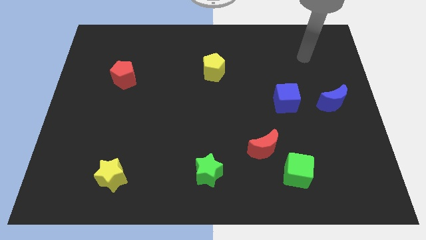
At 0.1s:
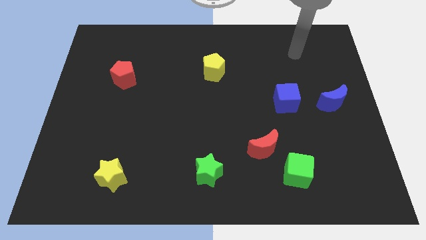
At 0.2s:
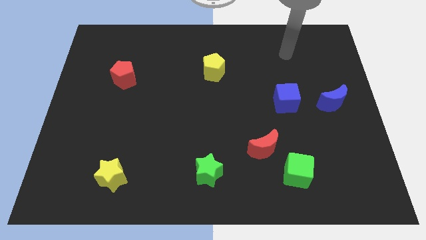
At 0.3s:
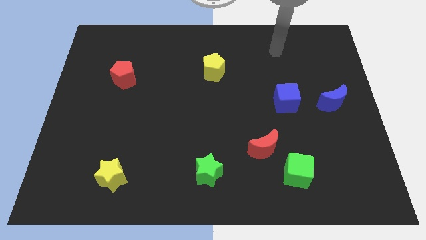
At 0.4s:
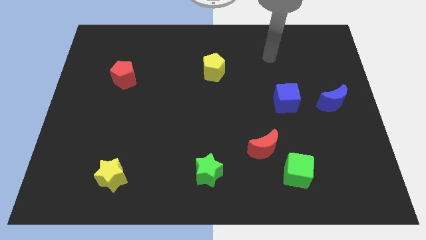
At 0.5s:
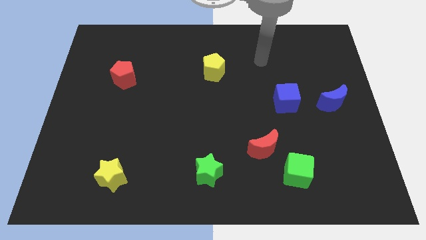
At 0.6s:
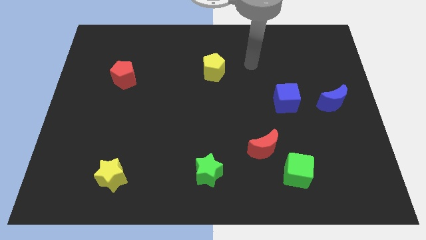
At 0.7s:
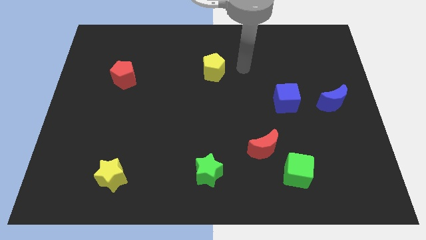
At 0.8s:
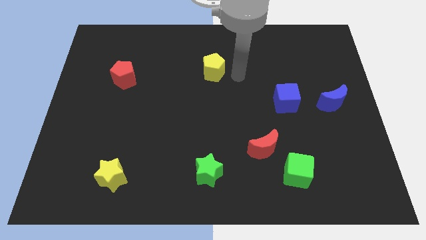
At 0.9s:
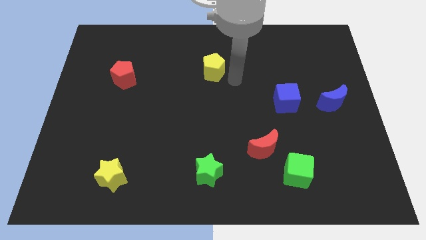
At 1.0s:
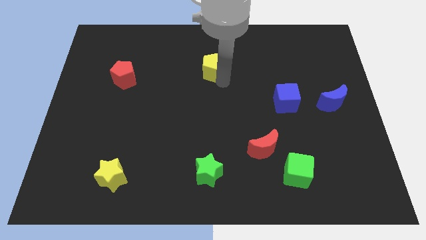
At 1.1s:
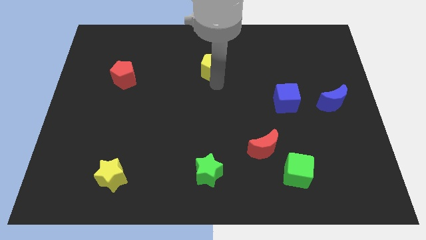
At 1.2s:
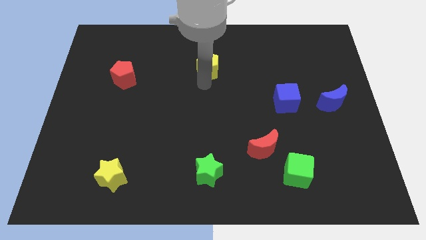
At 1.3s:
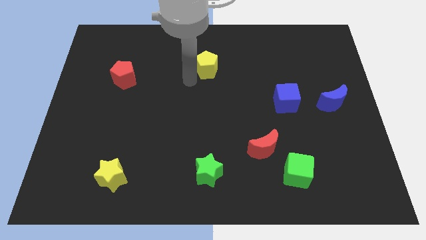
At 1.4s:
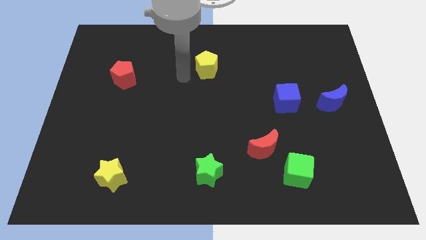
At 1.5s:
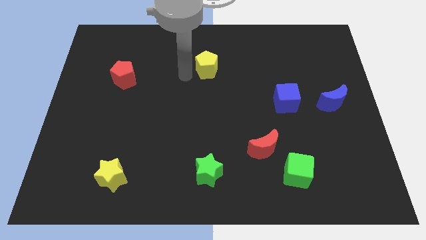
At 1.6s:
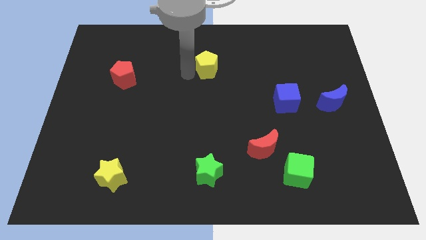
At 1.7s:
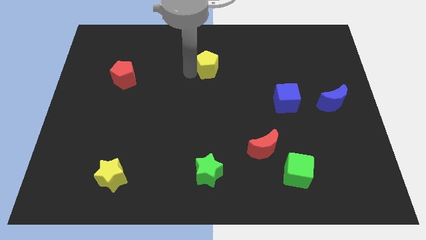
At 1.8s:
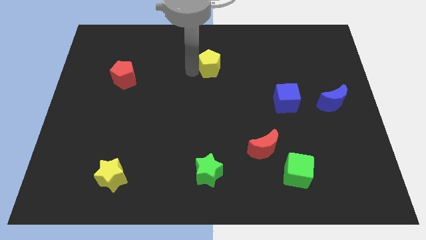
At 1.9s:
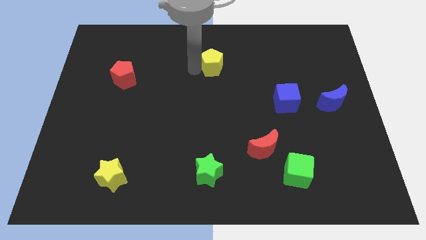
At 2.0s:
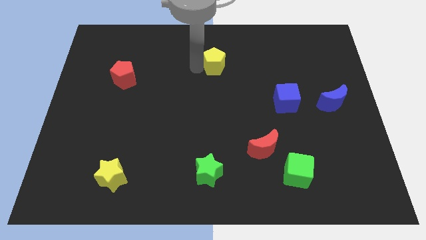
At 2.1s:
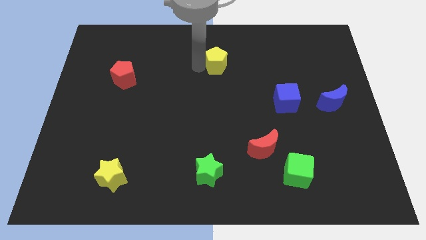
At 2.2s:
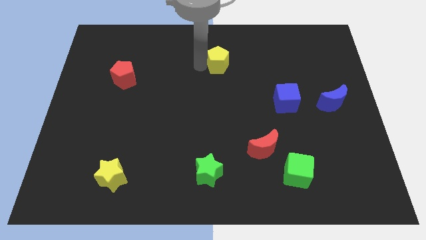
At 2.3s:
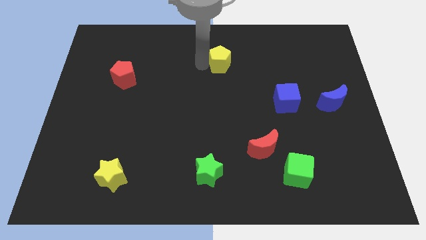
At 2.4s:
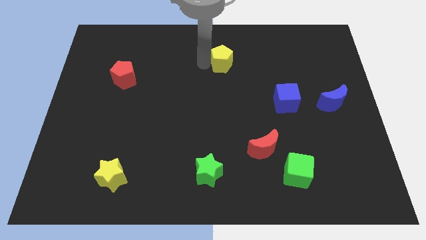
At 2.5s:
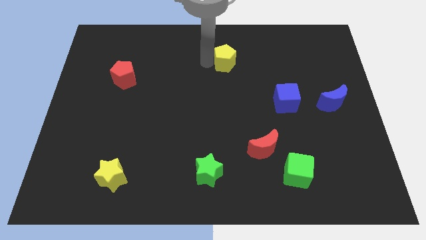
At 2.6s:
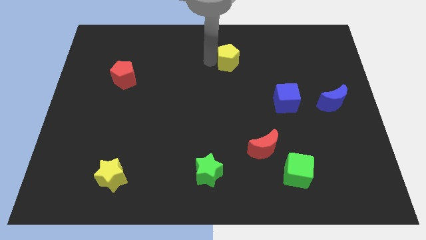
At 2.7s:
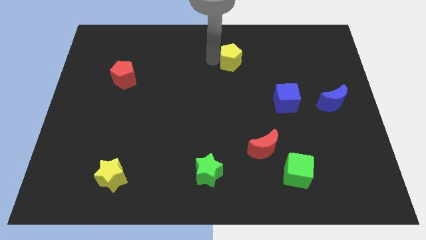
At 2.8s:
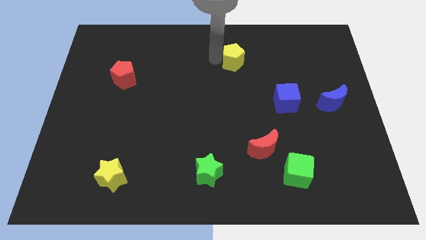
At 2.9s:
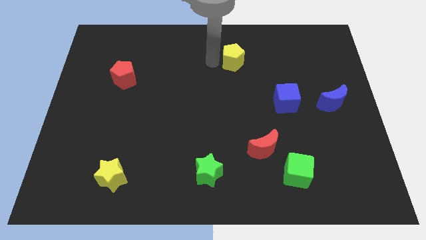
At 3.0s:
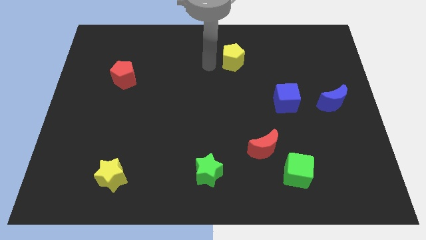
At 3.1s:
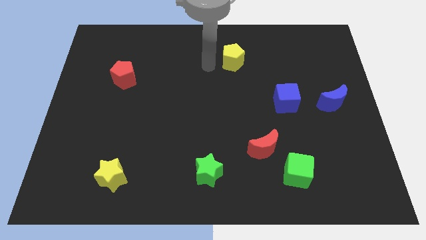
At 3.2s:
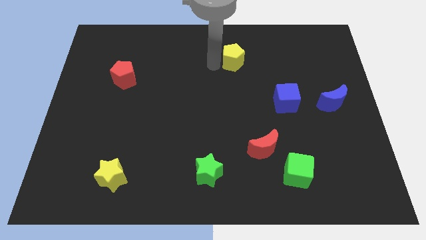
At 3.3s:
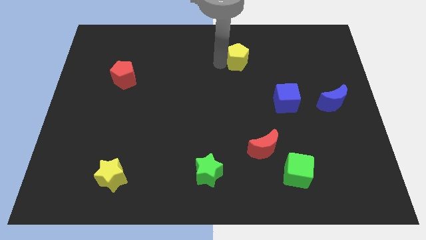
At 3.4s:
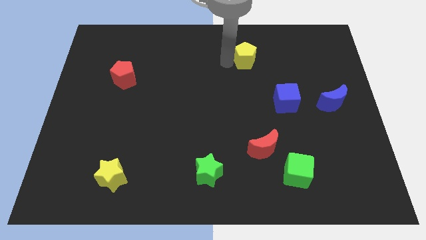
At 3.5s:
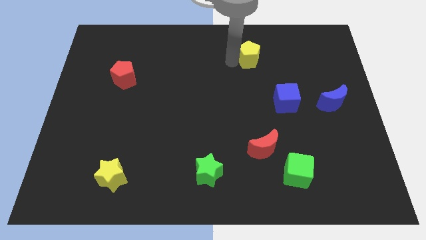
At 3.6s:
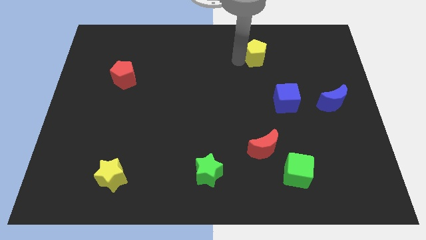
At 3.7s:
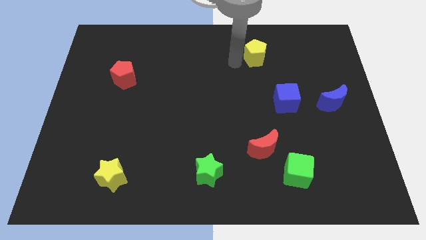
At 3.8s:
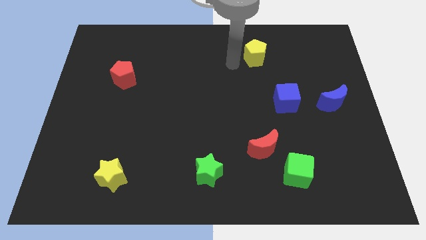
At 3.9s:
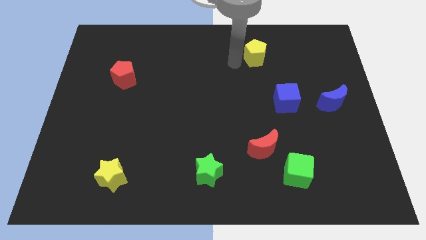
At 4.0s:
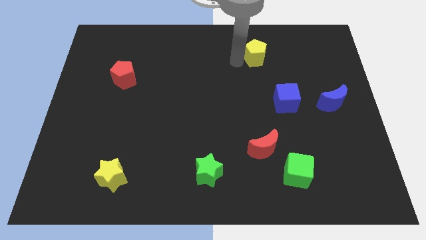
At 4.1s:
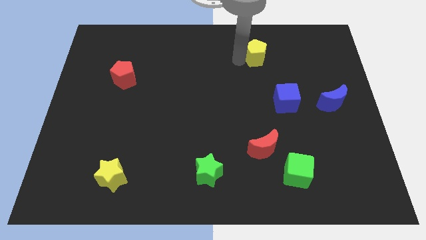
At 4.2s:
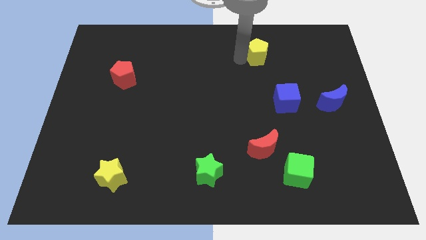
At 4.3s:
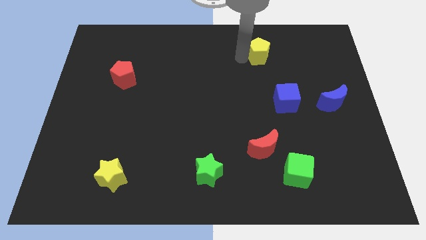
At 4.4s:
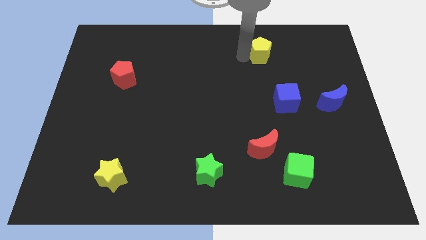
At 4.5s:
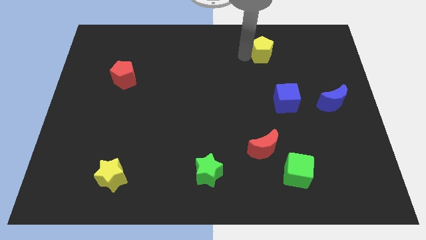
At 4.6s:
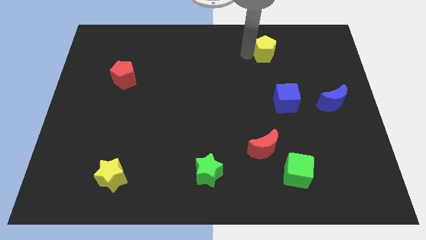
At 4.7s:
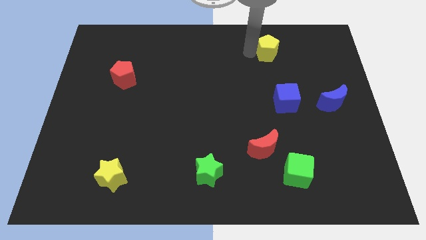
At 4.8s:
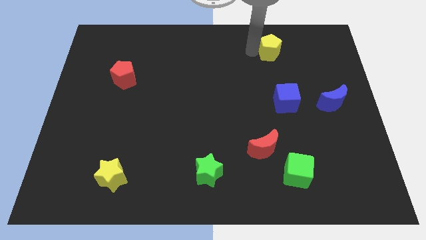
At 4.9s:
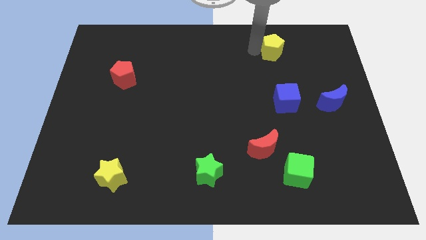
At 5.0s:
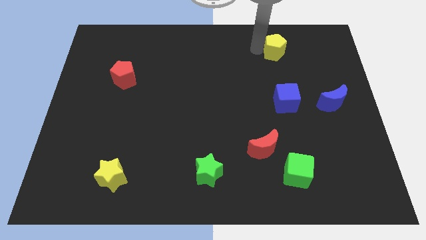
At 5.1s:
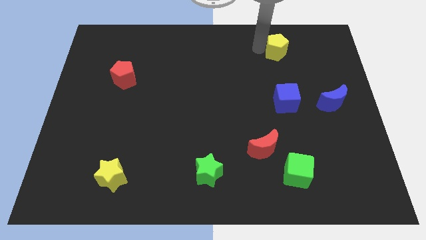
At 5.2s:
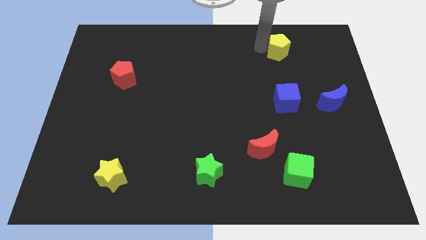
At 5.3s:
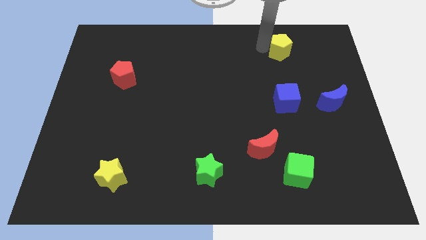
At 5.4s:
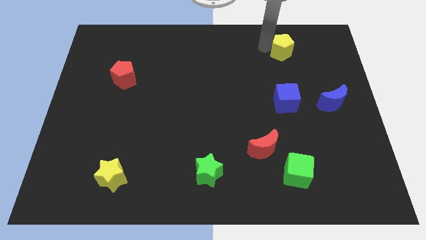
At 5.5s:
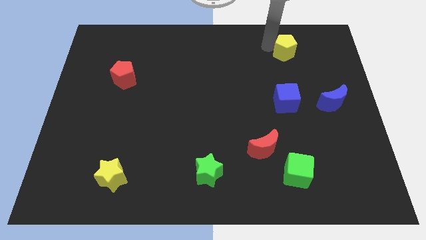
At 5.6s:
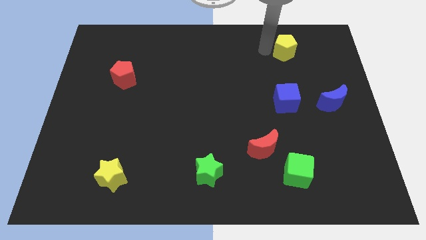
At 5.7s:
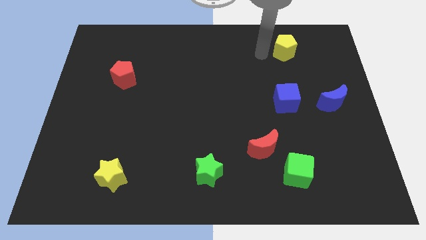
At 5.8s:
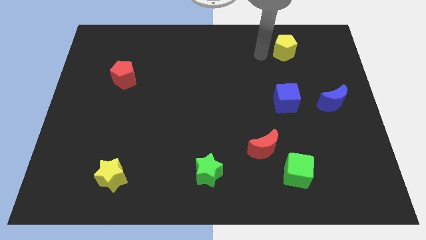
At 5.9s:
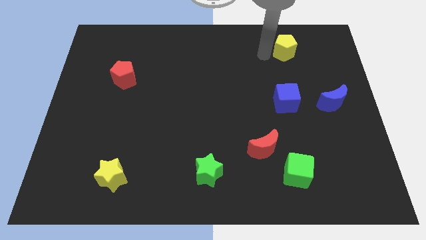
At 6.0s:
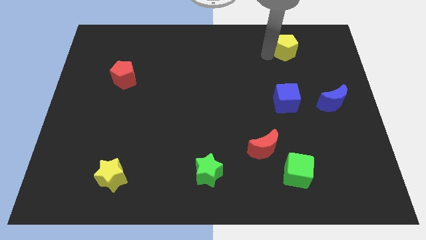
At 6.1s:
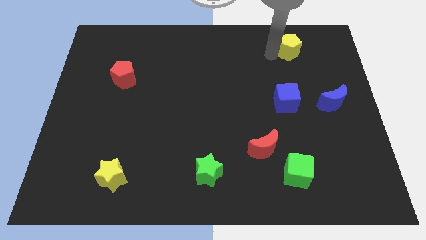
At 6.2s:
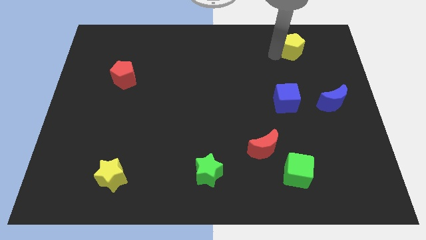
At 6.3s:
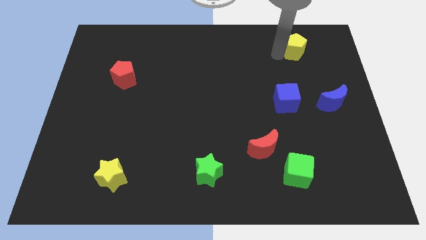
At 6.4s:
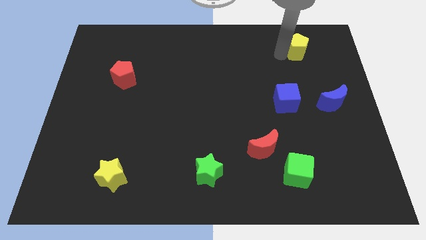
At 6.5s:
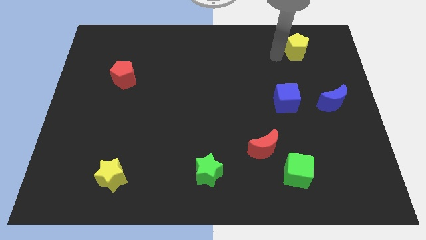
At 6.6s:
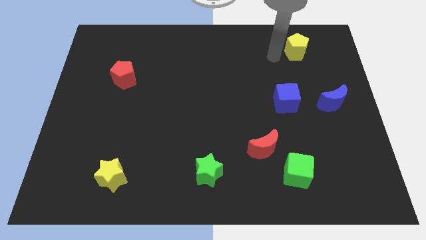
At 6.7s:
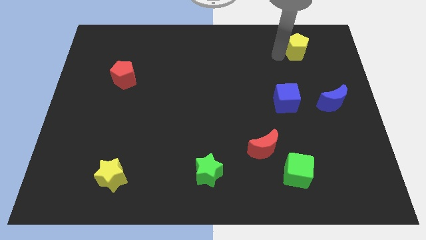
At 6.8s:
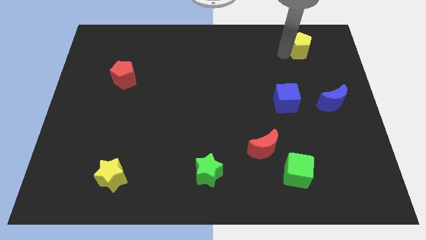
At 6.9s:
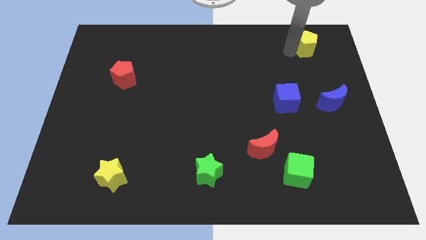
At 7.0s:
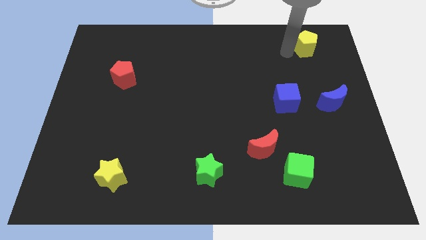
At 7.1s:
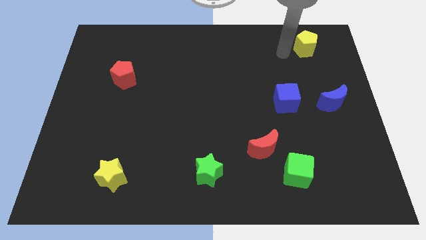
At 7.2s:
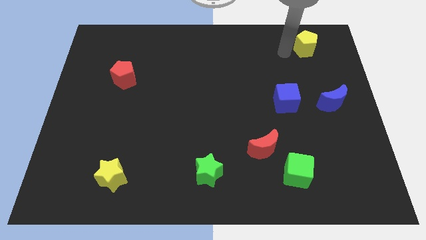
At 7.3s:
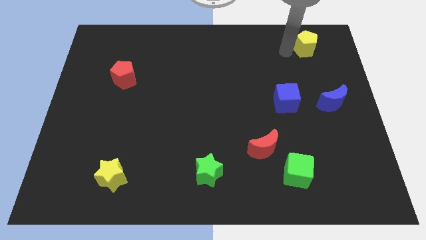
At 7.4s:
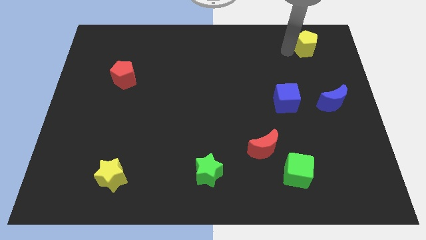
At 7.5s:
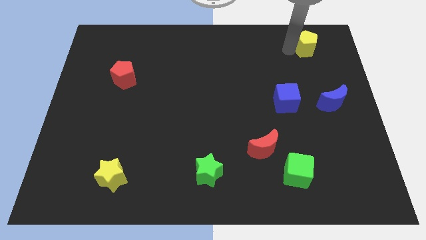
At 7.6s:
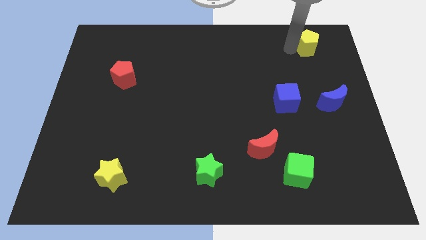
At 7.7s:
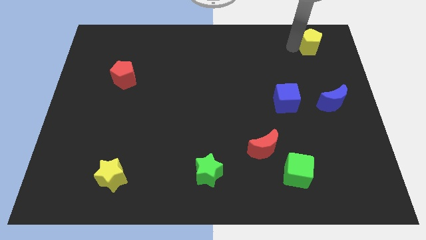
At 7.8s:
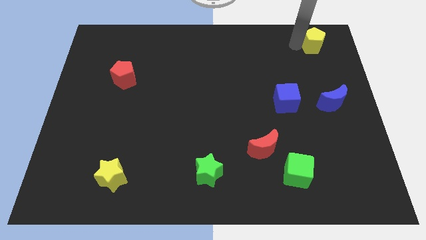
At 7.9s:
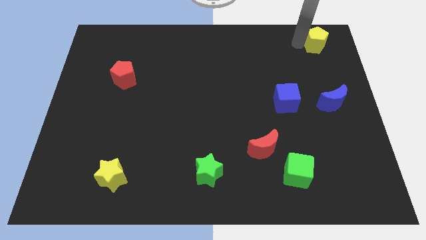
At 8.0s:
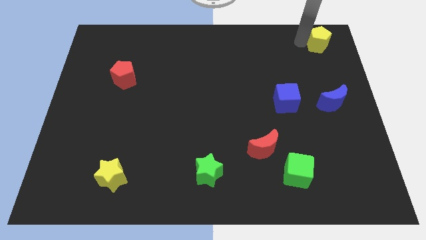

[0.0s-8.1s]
push the yellow pentagon to the top right of the board
